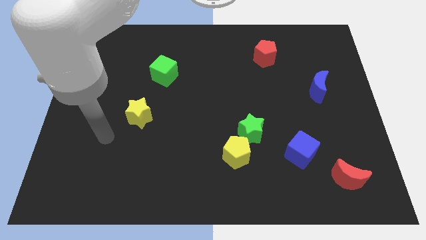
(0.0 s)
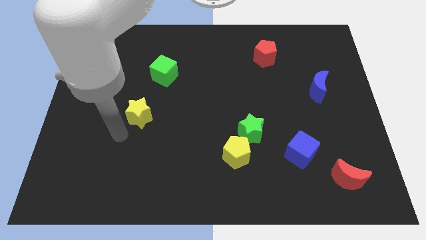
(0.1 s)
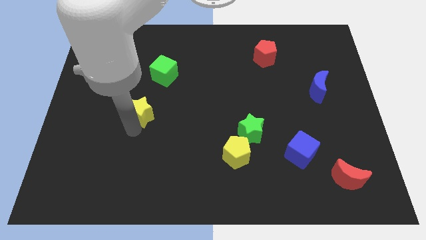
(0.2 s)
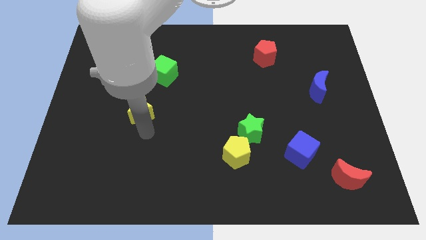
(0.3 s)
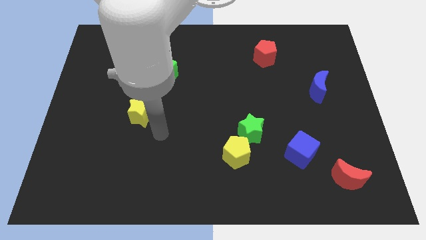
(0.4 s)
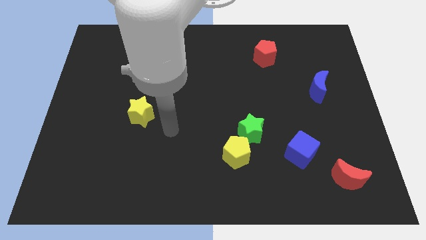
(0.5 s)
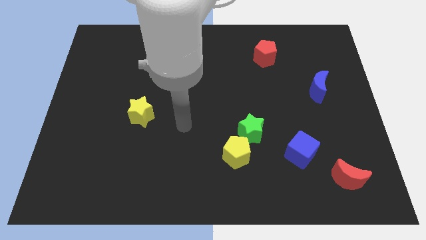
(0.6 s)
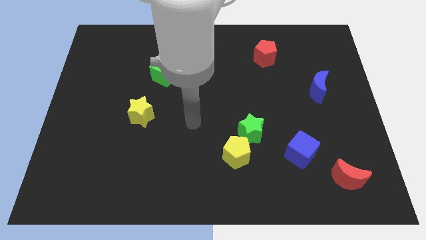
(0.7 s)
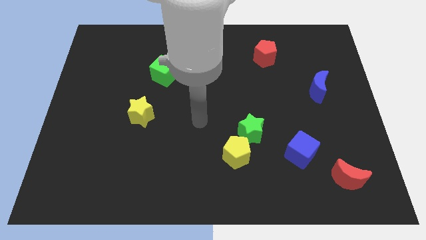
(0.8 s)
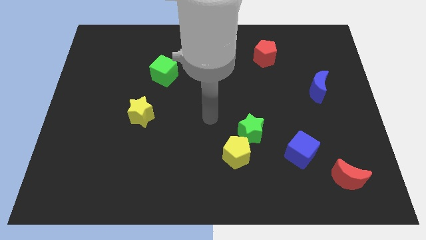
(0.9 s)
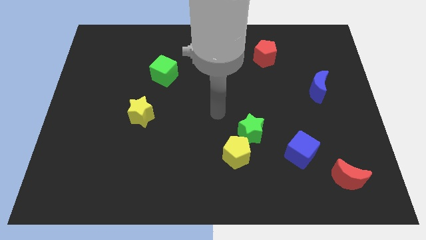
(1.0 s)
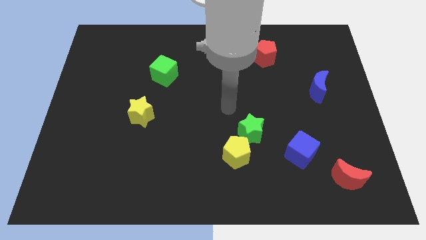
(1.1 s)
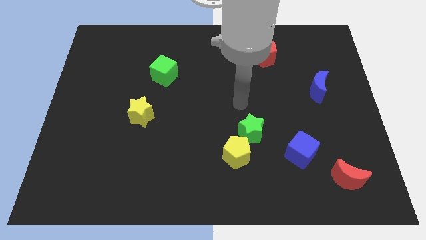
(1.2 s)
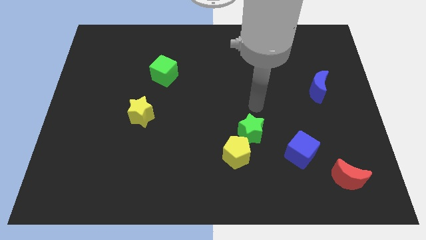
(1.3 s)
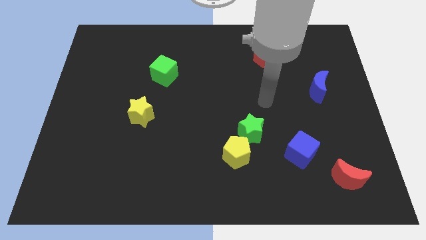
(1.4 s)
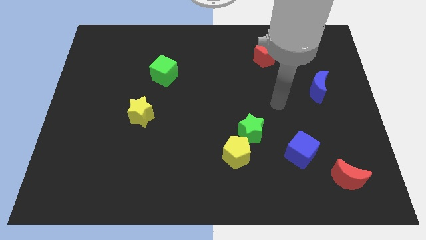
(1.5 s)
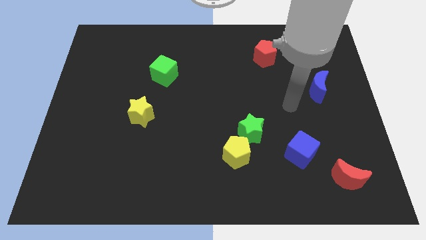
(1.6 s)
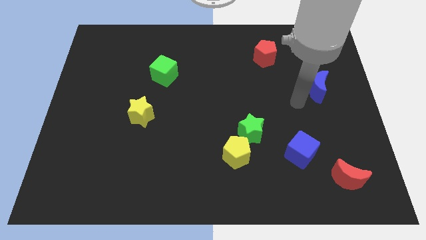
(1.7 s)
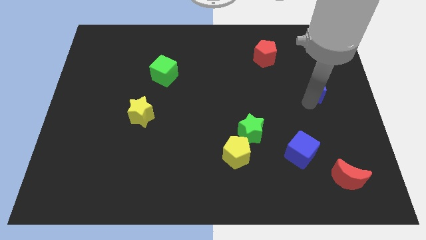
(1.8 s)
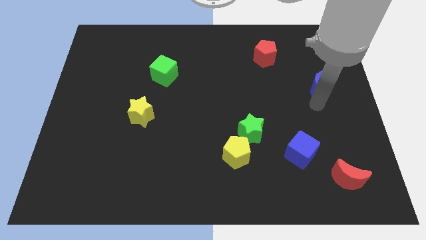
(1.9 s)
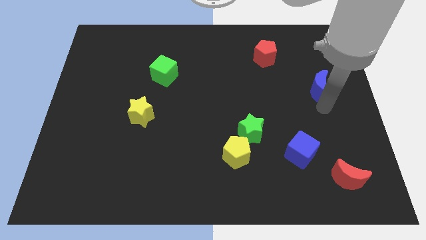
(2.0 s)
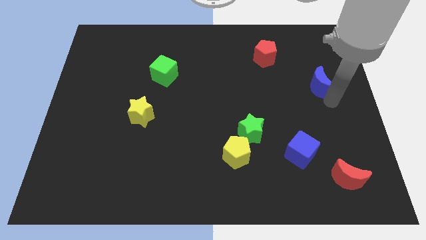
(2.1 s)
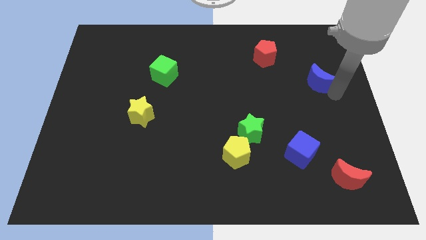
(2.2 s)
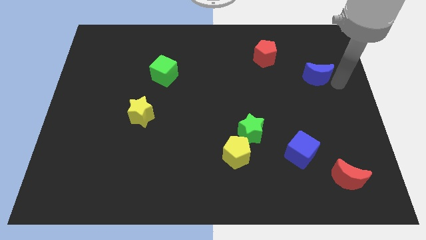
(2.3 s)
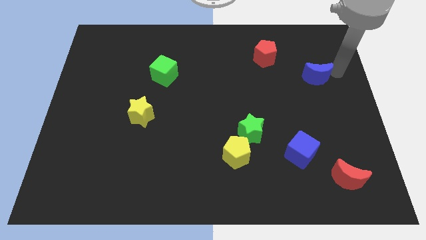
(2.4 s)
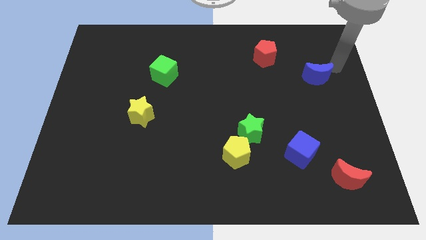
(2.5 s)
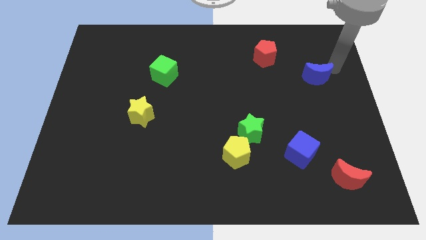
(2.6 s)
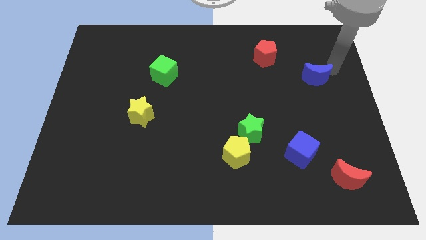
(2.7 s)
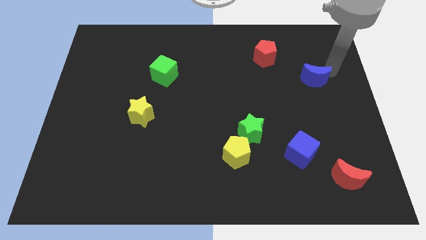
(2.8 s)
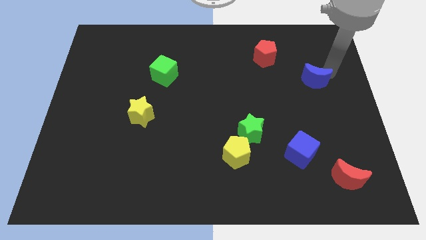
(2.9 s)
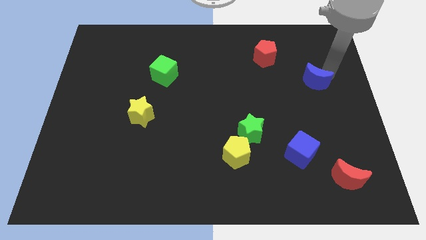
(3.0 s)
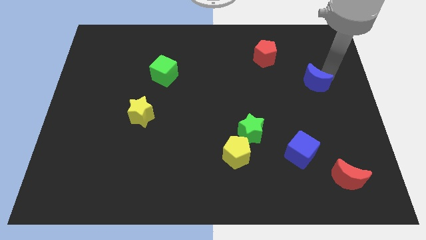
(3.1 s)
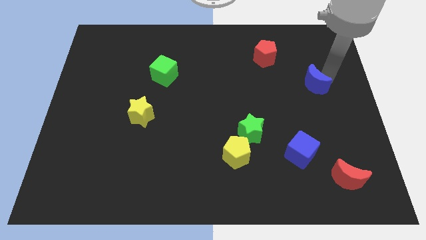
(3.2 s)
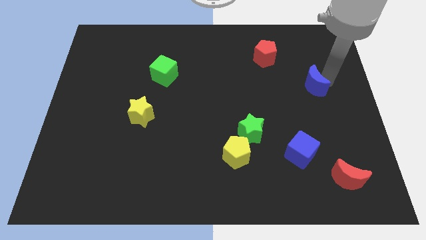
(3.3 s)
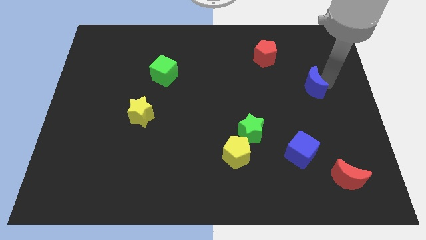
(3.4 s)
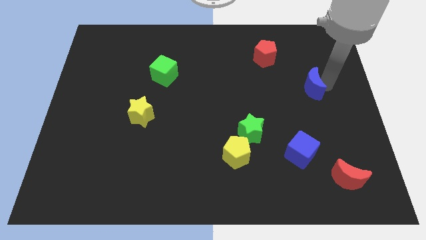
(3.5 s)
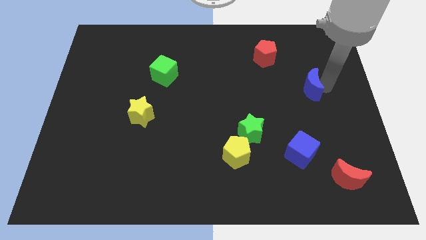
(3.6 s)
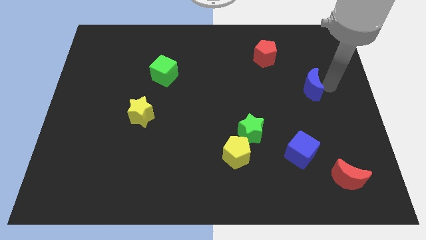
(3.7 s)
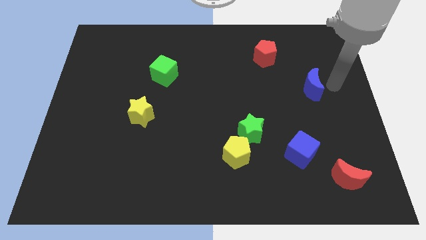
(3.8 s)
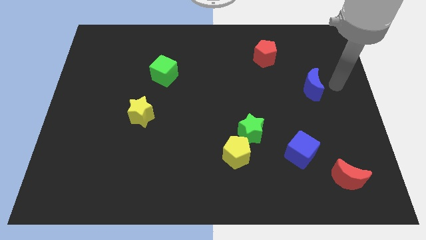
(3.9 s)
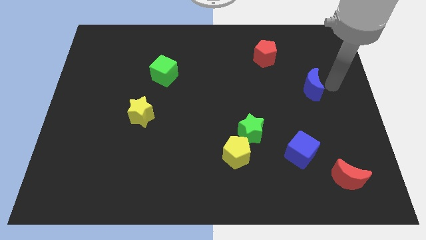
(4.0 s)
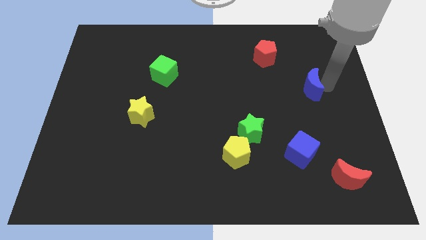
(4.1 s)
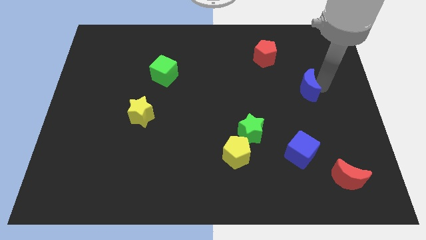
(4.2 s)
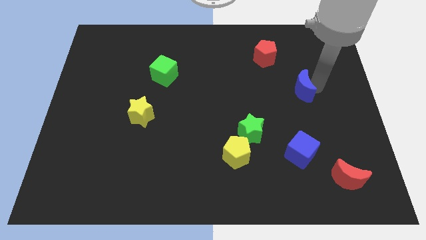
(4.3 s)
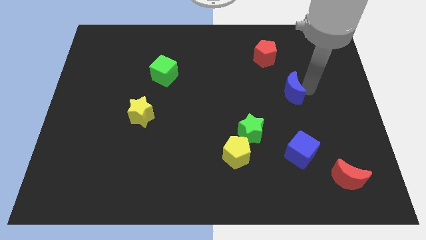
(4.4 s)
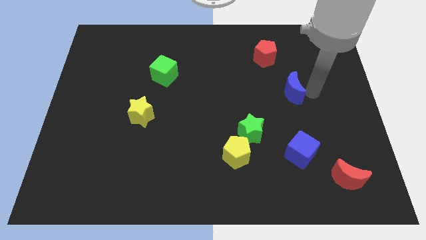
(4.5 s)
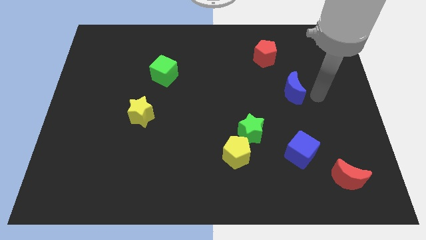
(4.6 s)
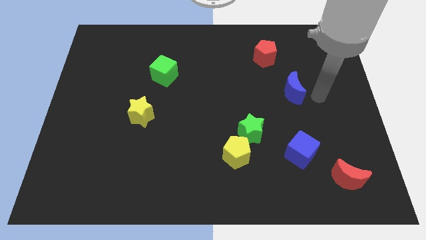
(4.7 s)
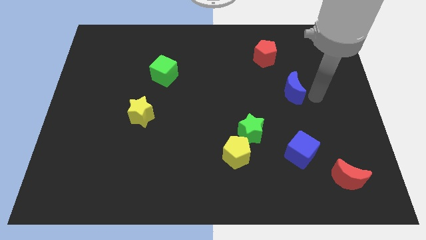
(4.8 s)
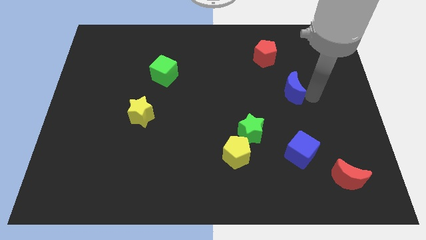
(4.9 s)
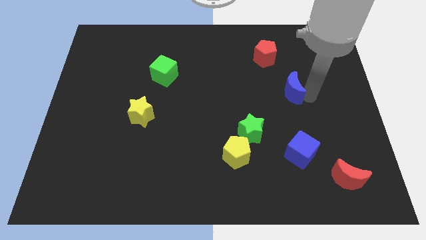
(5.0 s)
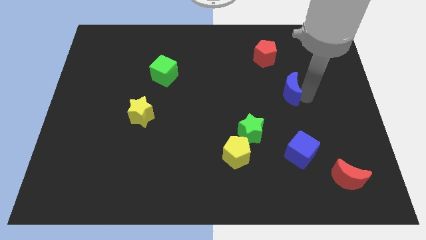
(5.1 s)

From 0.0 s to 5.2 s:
slide the blue moon below the red pentagon

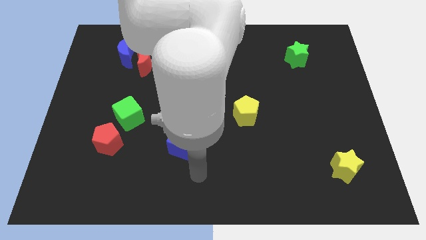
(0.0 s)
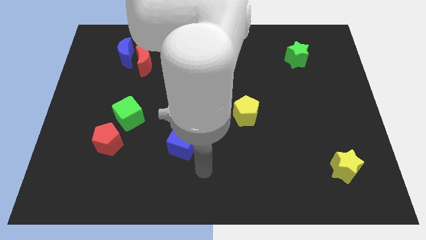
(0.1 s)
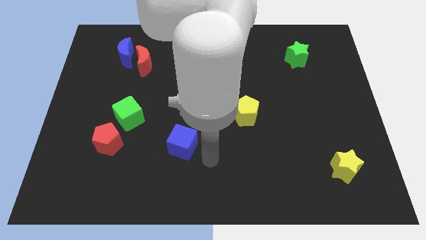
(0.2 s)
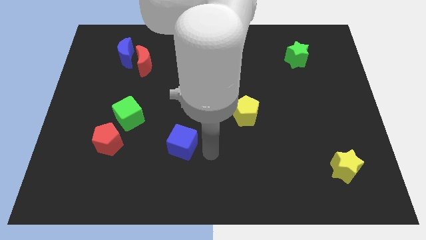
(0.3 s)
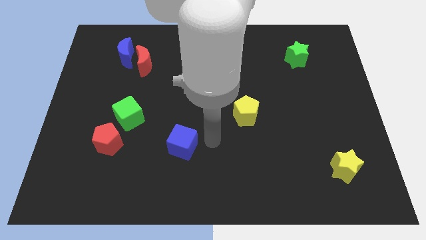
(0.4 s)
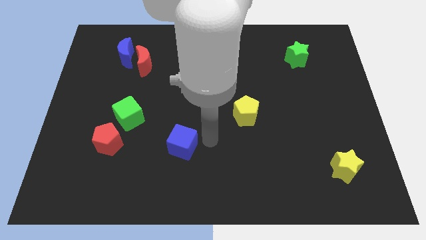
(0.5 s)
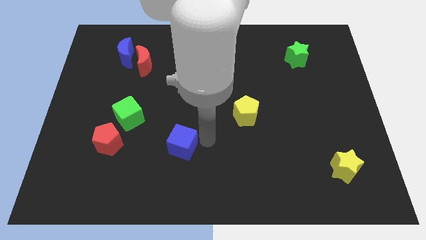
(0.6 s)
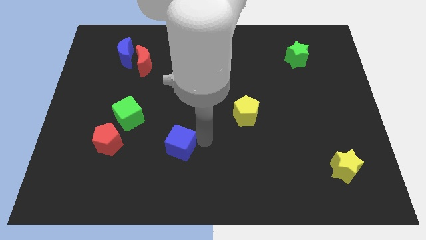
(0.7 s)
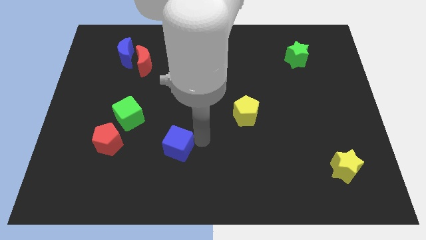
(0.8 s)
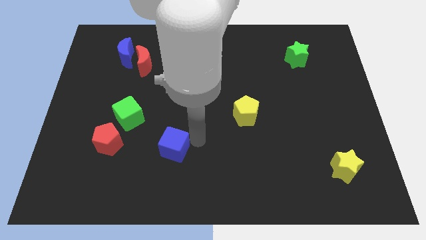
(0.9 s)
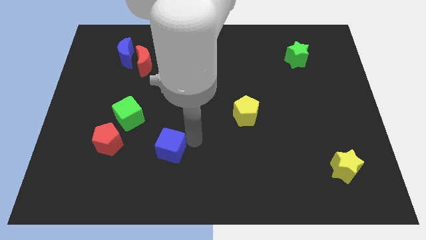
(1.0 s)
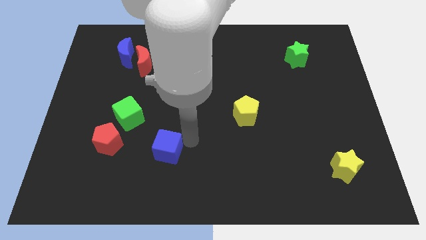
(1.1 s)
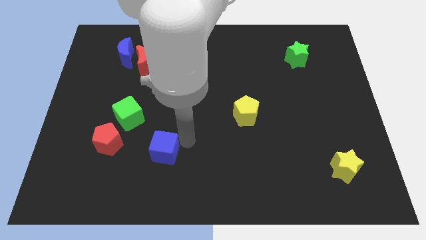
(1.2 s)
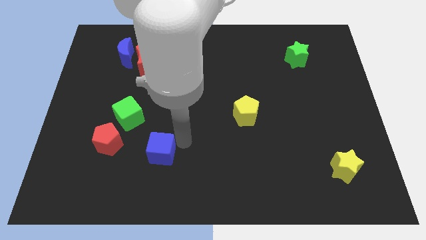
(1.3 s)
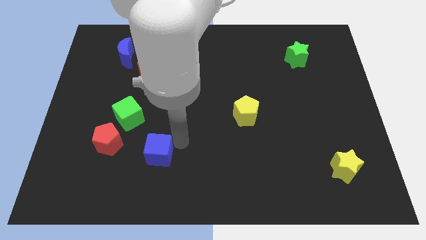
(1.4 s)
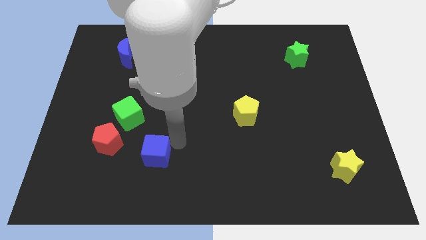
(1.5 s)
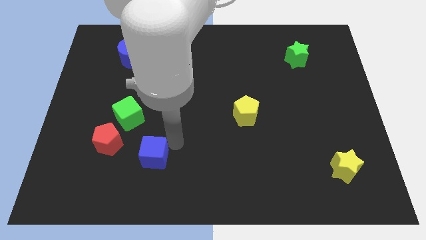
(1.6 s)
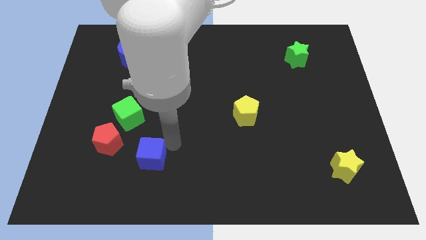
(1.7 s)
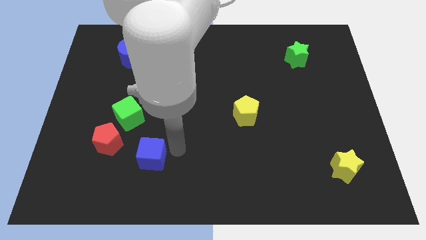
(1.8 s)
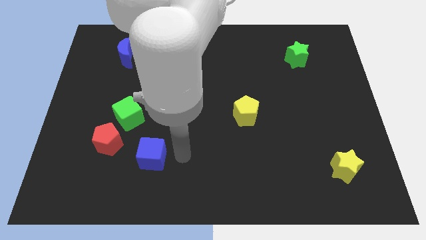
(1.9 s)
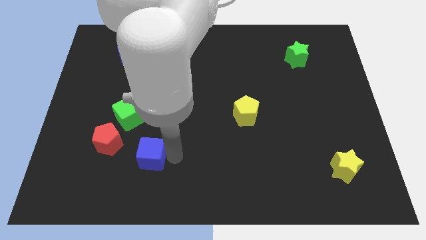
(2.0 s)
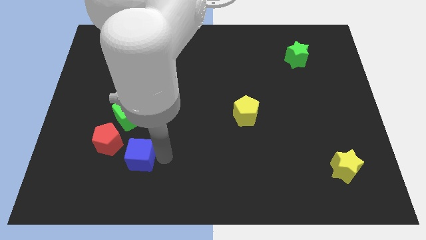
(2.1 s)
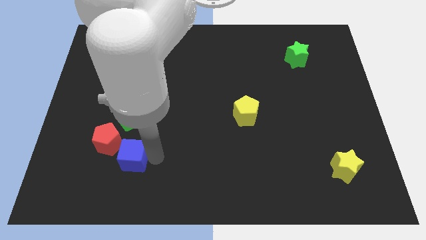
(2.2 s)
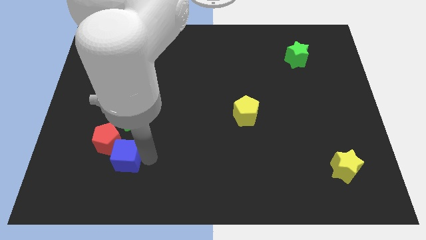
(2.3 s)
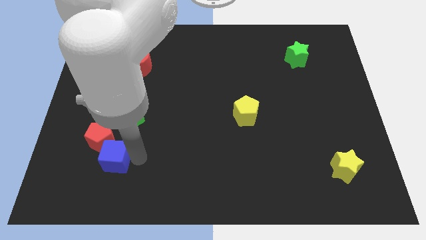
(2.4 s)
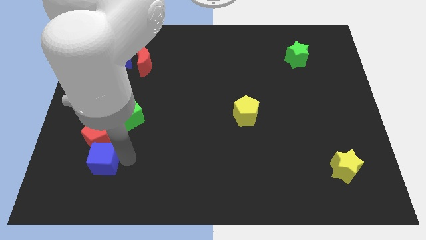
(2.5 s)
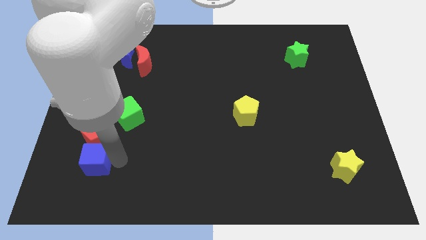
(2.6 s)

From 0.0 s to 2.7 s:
slide the blue cube to the bottom left side of the red pentagon
